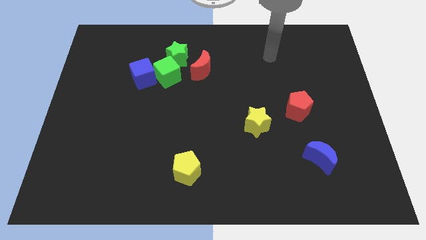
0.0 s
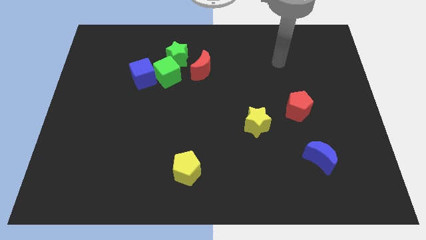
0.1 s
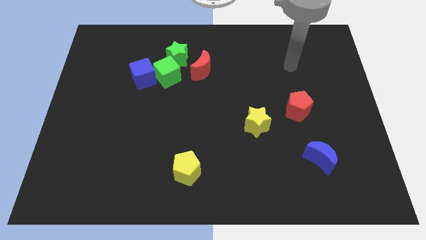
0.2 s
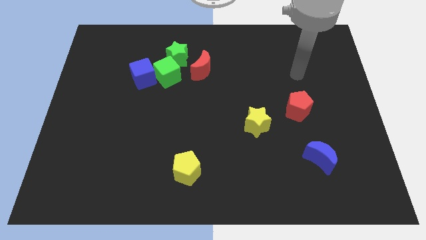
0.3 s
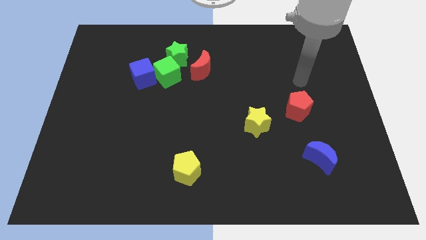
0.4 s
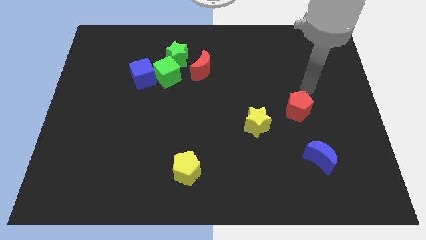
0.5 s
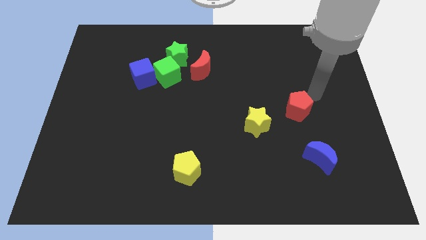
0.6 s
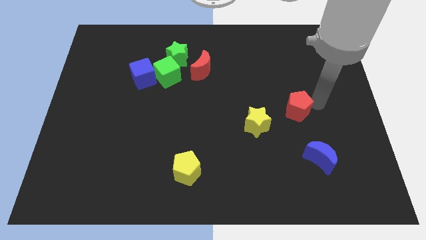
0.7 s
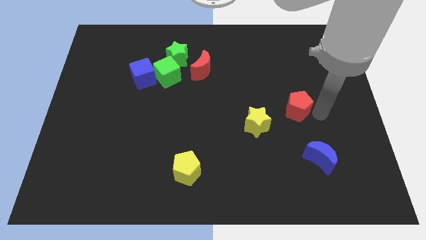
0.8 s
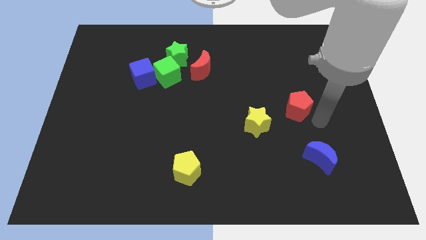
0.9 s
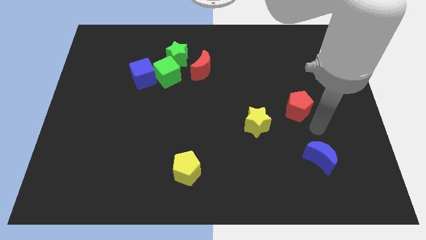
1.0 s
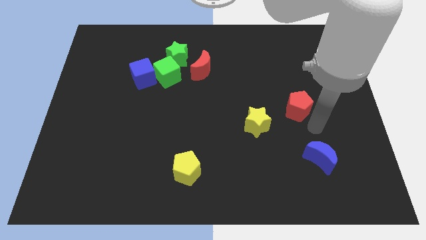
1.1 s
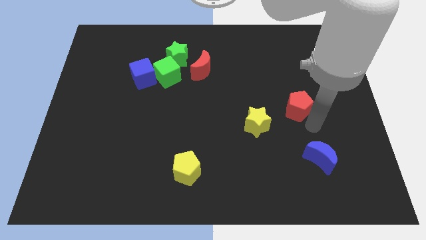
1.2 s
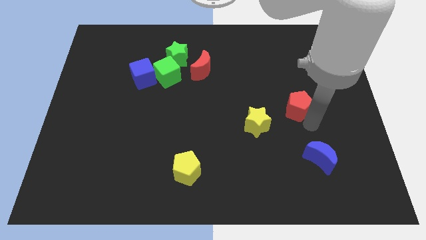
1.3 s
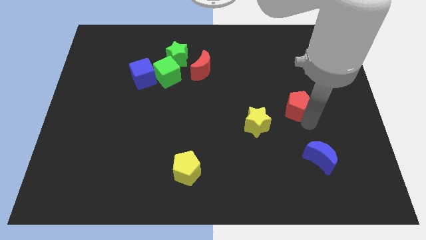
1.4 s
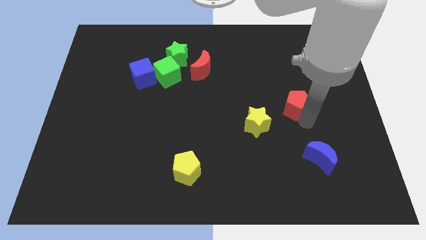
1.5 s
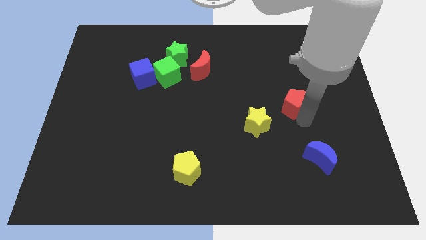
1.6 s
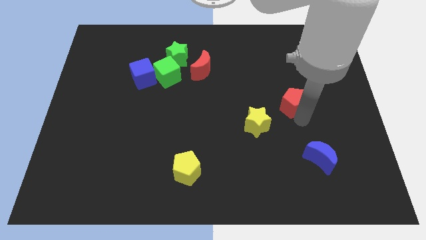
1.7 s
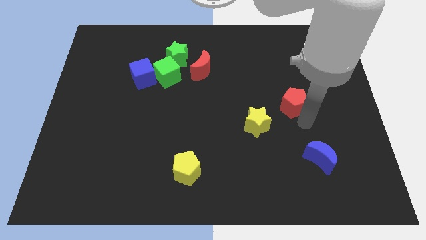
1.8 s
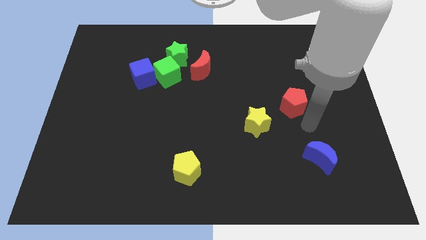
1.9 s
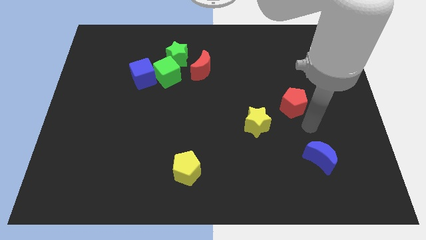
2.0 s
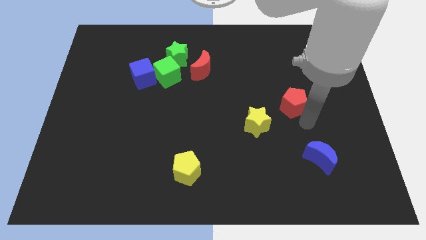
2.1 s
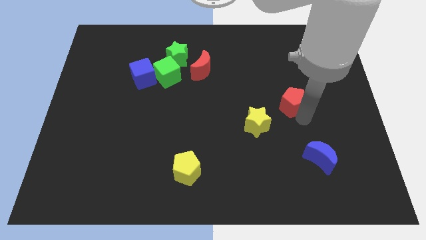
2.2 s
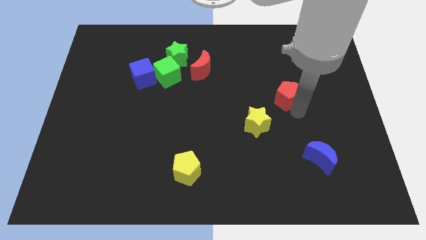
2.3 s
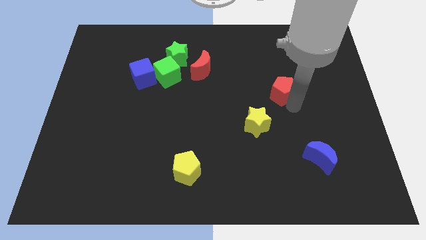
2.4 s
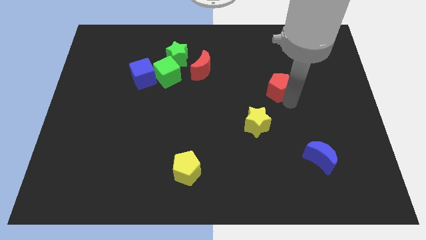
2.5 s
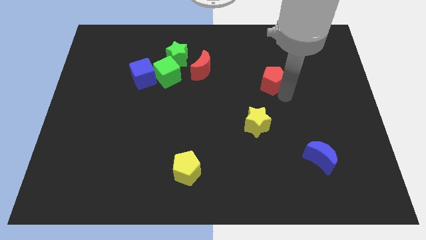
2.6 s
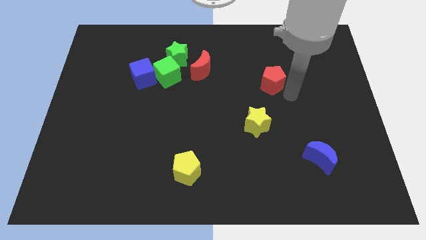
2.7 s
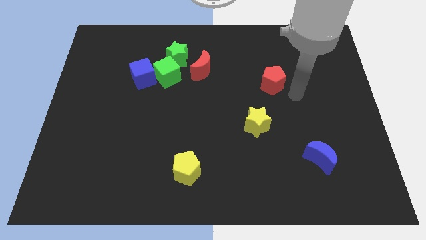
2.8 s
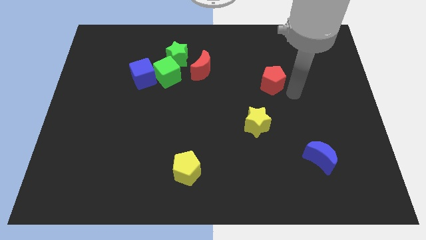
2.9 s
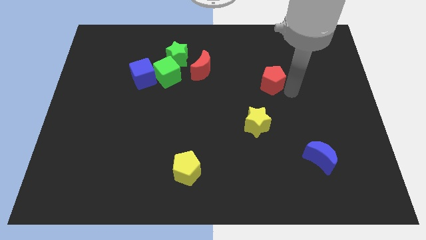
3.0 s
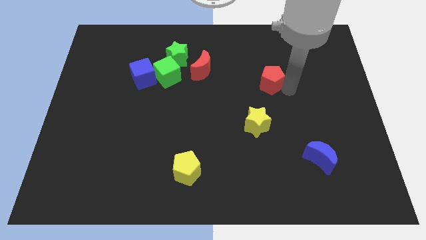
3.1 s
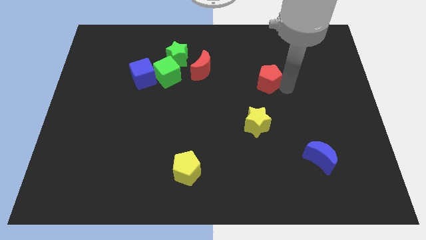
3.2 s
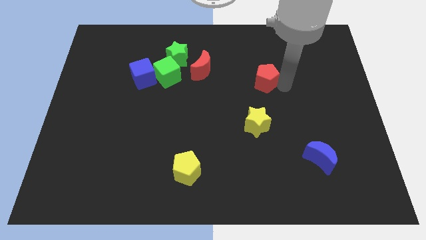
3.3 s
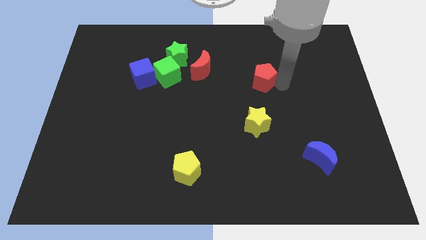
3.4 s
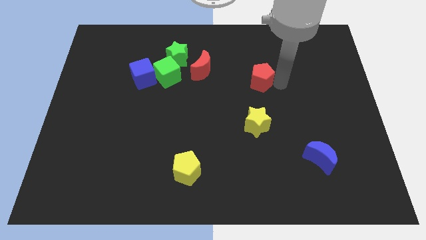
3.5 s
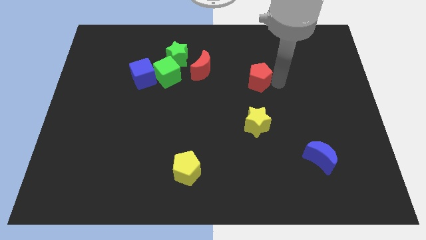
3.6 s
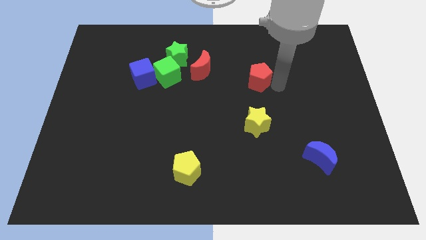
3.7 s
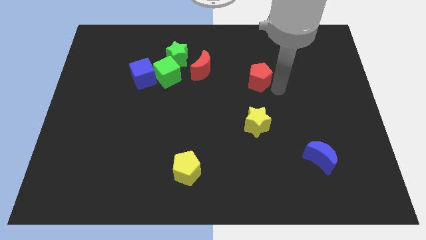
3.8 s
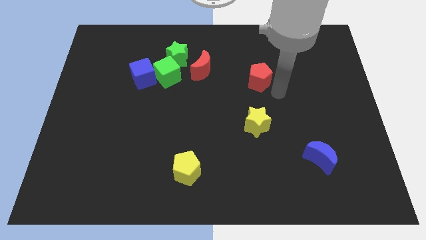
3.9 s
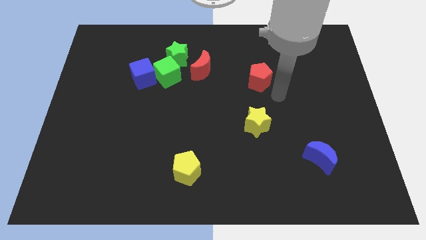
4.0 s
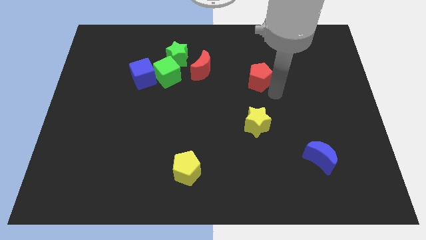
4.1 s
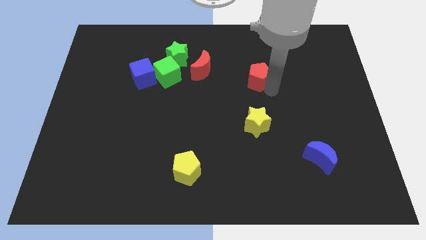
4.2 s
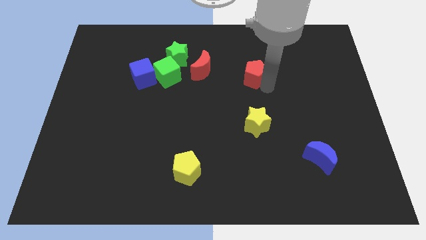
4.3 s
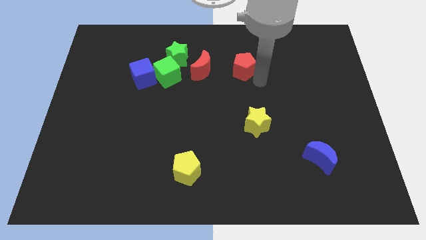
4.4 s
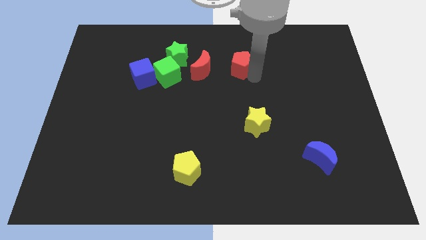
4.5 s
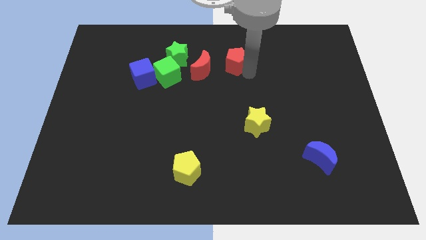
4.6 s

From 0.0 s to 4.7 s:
push the red pentagon diagonally up and to the right of the red moon

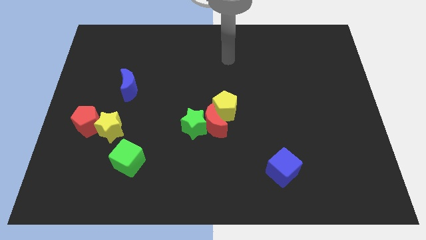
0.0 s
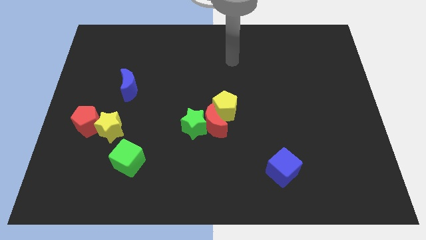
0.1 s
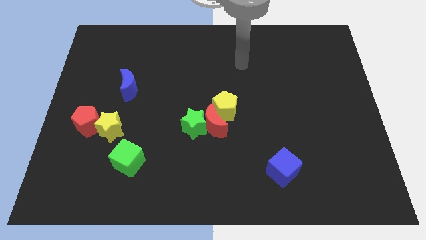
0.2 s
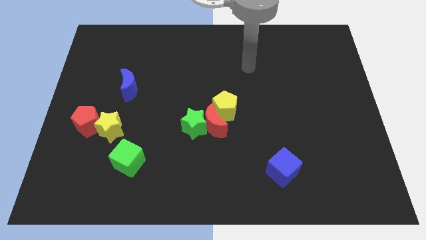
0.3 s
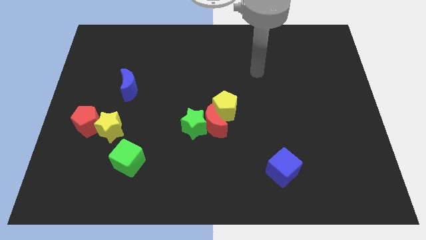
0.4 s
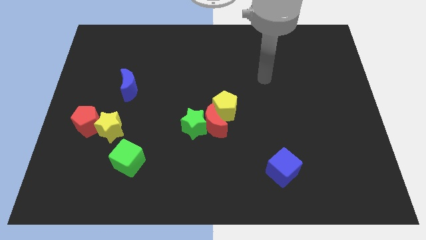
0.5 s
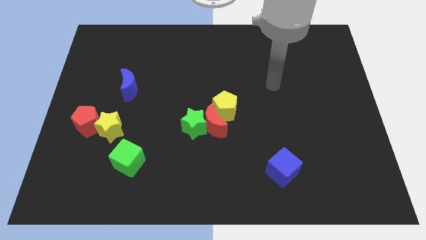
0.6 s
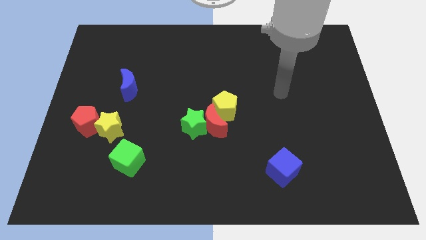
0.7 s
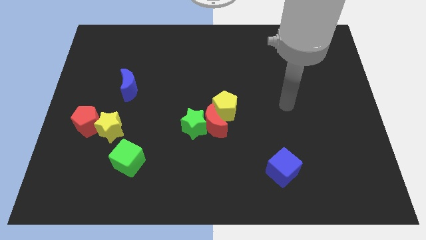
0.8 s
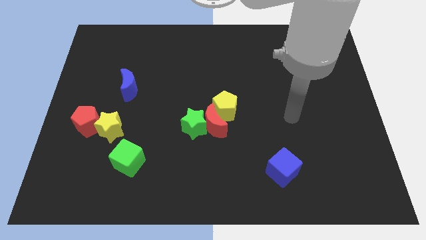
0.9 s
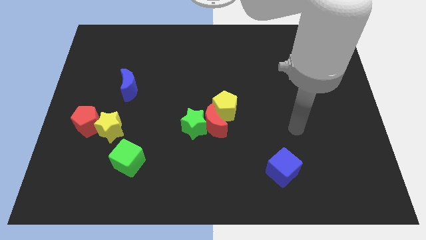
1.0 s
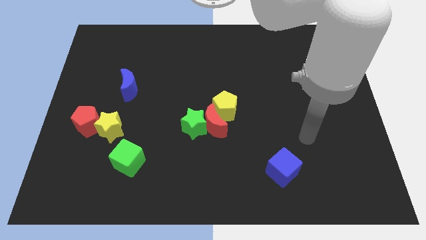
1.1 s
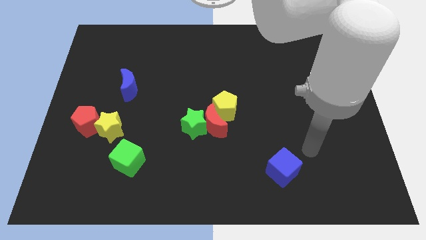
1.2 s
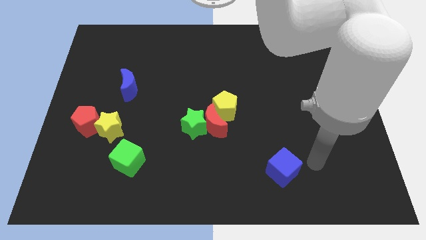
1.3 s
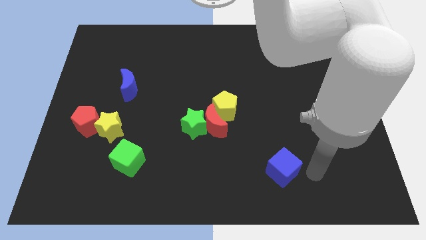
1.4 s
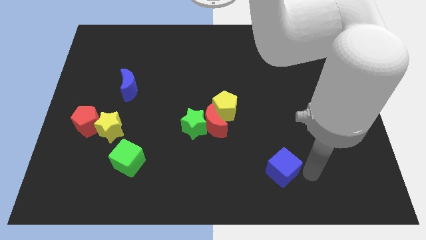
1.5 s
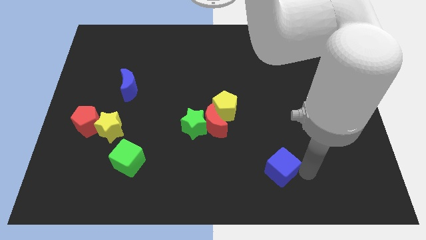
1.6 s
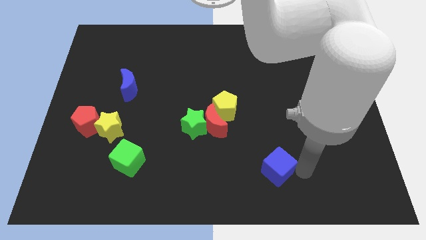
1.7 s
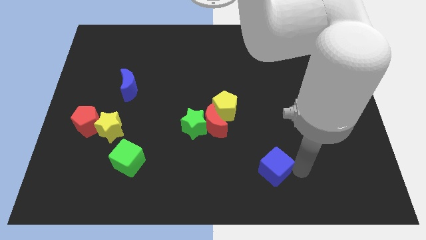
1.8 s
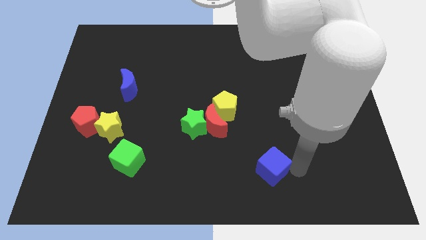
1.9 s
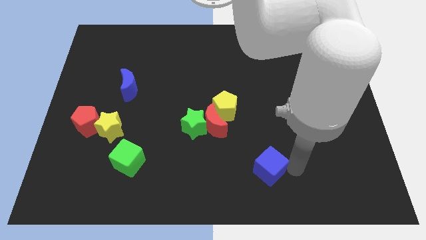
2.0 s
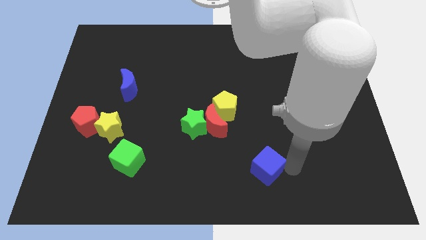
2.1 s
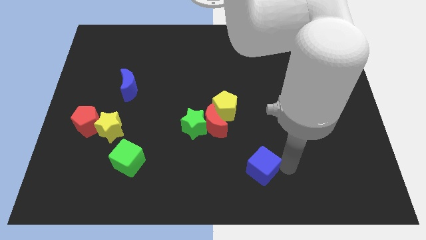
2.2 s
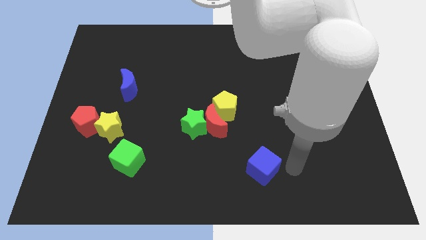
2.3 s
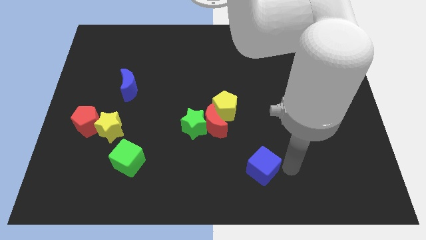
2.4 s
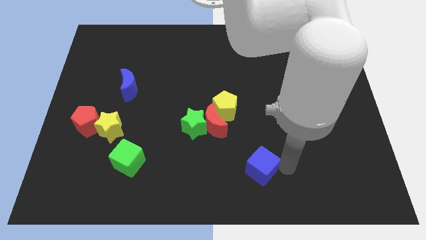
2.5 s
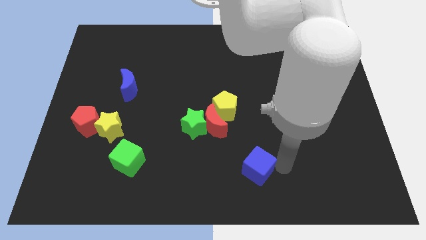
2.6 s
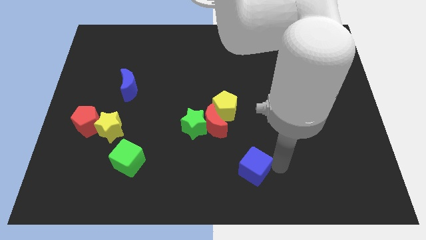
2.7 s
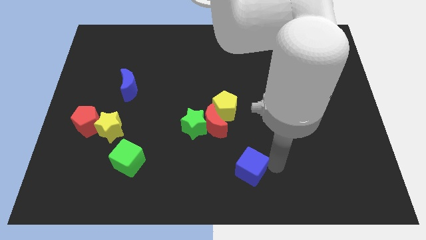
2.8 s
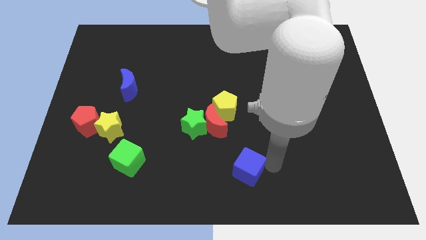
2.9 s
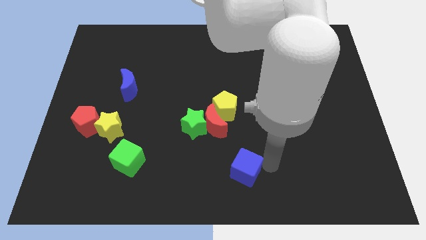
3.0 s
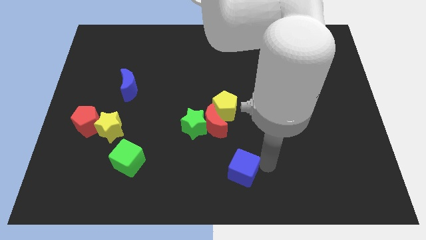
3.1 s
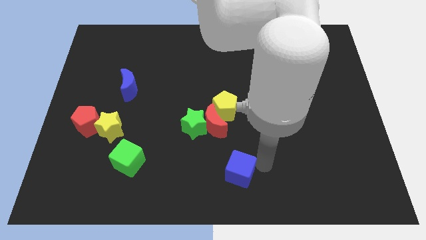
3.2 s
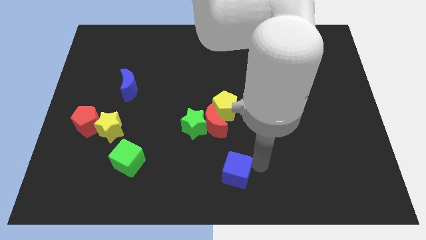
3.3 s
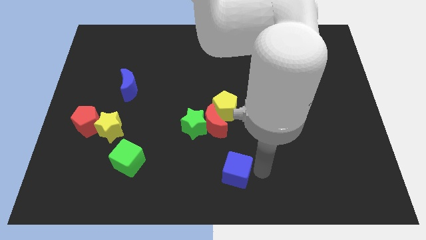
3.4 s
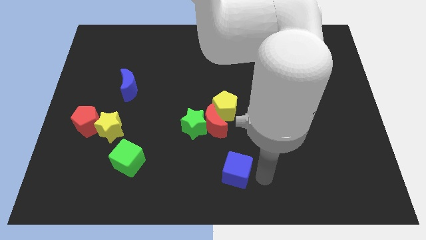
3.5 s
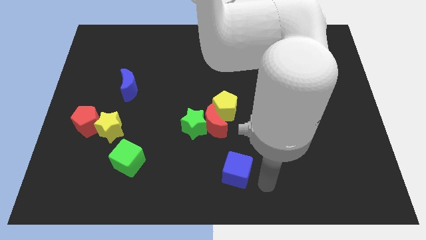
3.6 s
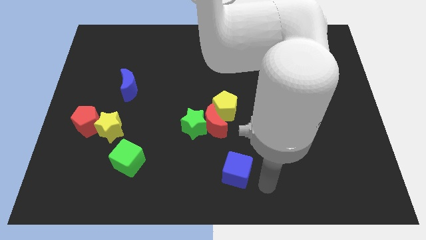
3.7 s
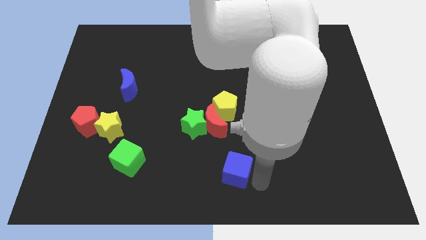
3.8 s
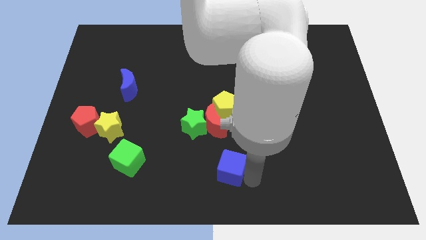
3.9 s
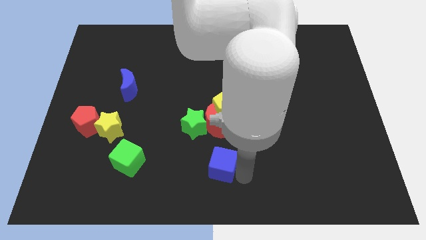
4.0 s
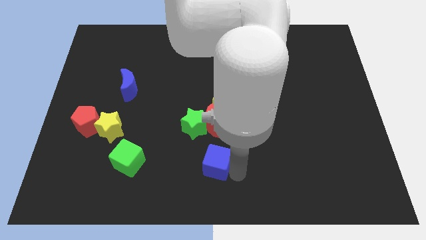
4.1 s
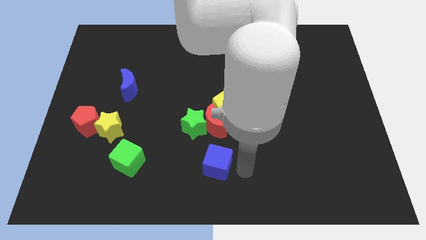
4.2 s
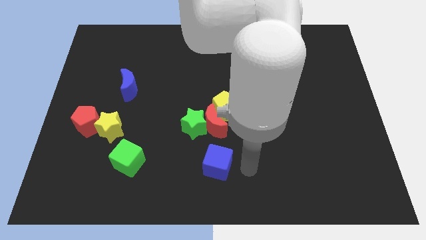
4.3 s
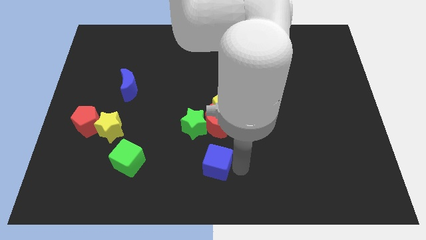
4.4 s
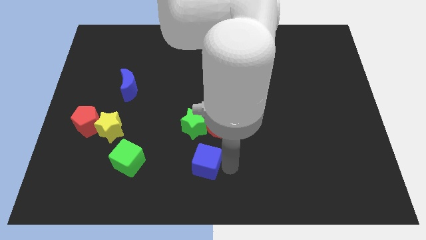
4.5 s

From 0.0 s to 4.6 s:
push the blue cube right of the green cube
